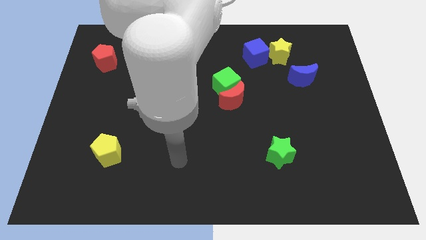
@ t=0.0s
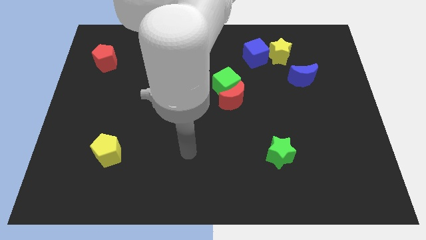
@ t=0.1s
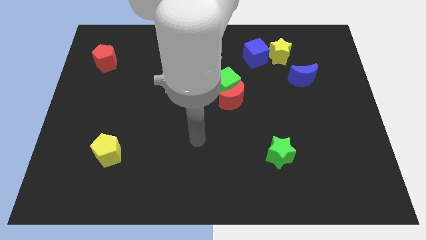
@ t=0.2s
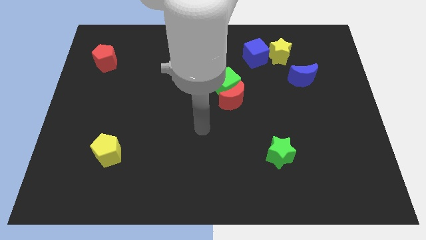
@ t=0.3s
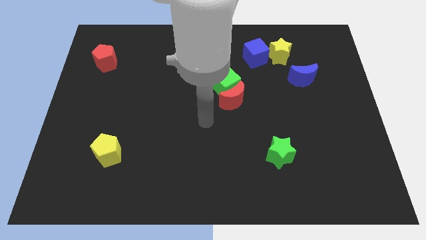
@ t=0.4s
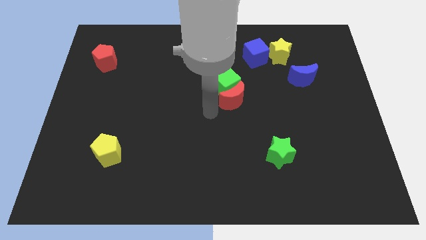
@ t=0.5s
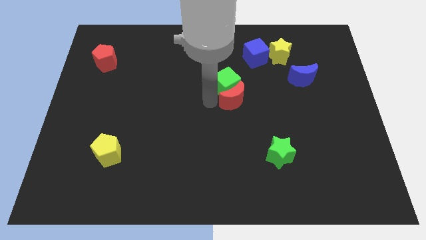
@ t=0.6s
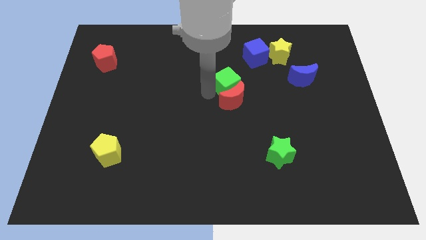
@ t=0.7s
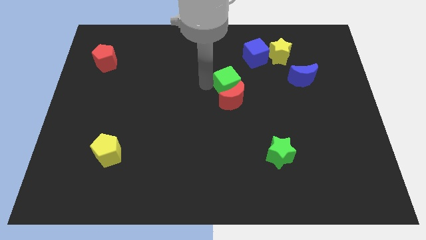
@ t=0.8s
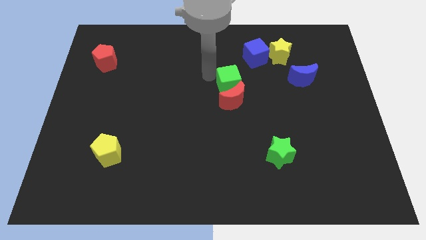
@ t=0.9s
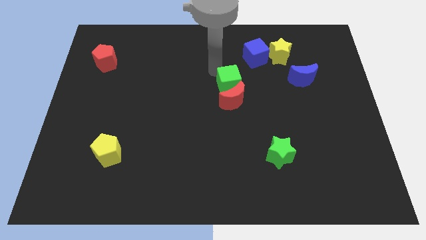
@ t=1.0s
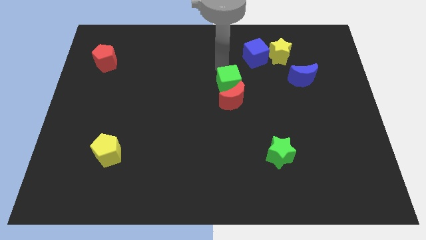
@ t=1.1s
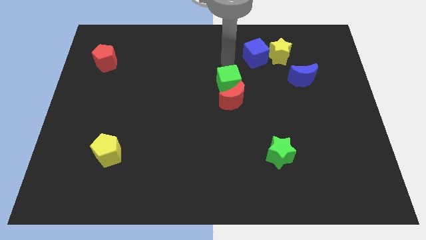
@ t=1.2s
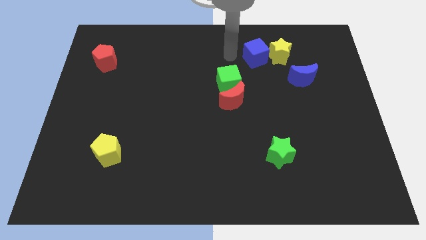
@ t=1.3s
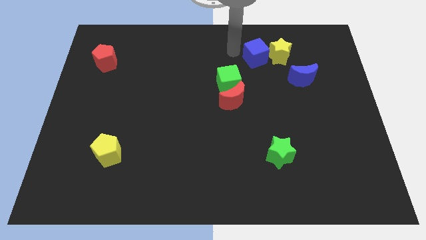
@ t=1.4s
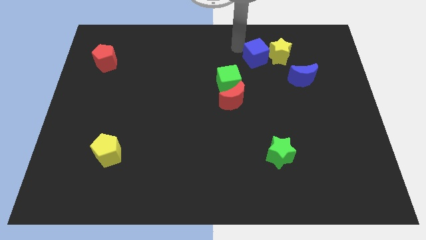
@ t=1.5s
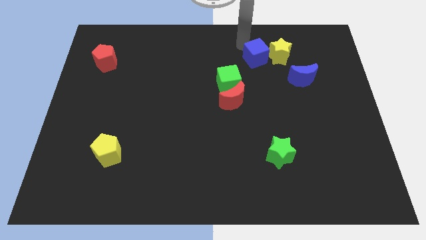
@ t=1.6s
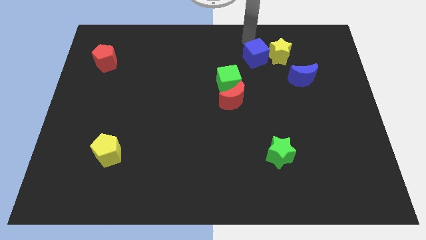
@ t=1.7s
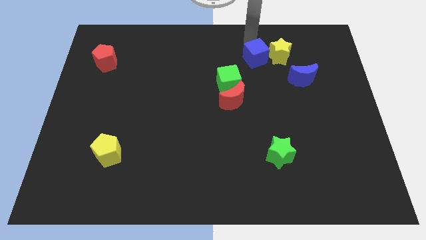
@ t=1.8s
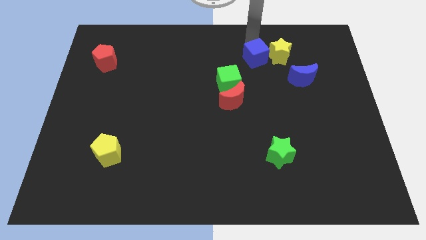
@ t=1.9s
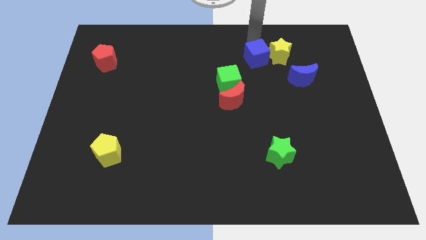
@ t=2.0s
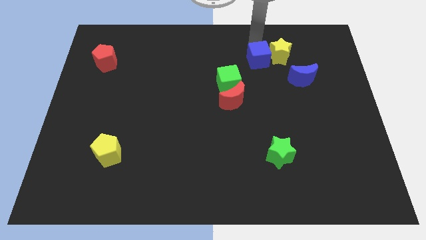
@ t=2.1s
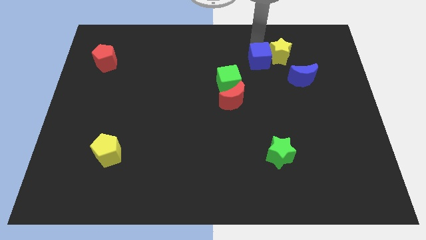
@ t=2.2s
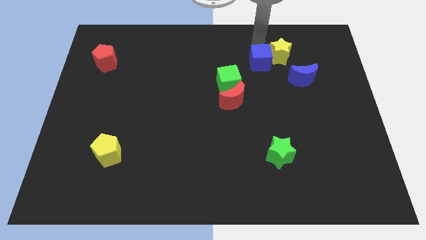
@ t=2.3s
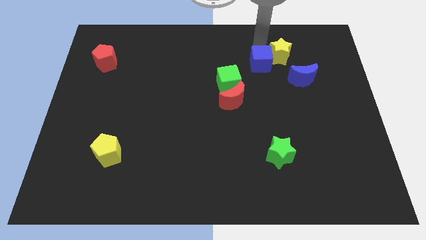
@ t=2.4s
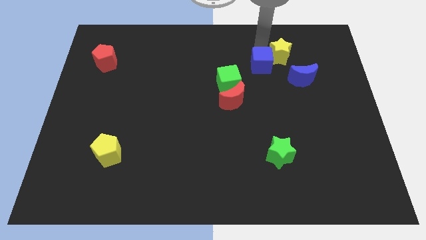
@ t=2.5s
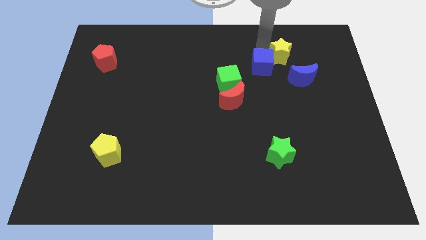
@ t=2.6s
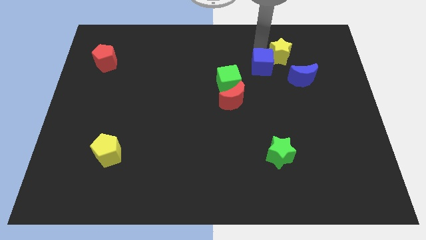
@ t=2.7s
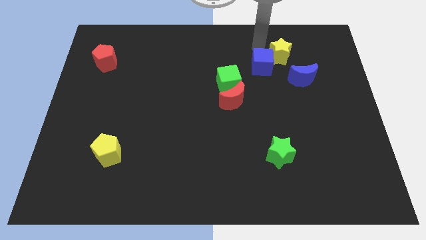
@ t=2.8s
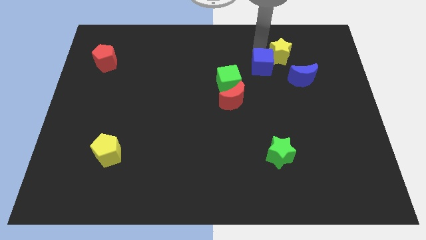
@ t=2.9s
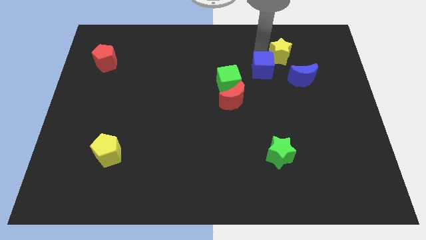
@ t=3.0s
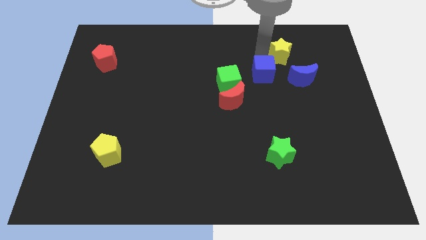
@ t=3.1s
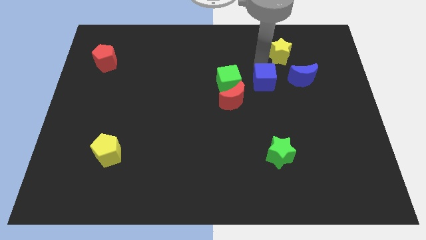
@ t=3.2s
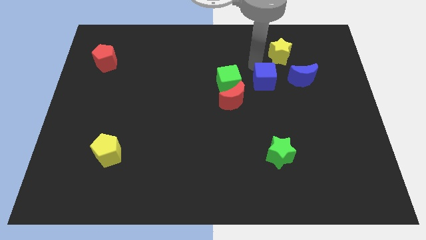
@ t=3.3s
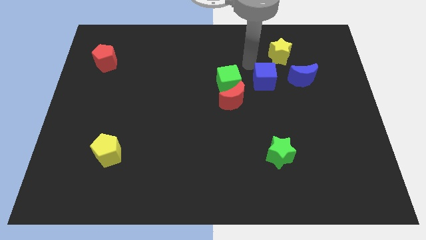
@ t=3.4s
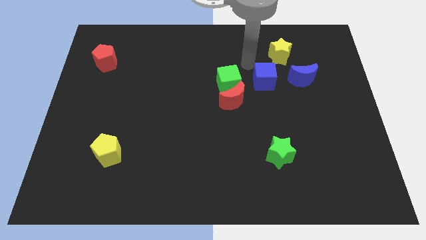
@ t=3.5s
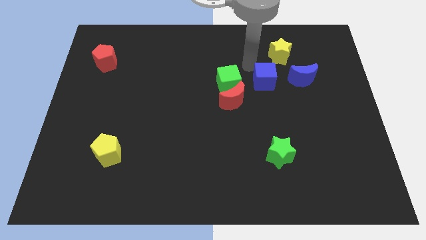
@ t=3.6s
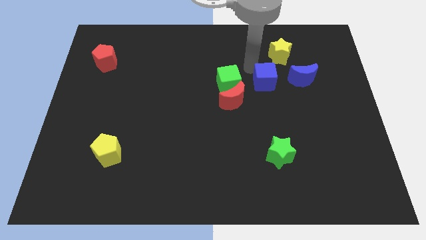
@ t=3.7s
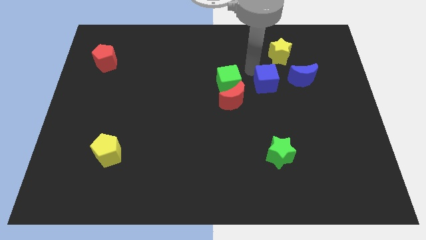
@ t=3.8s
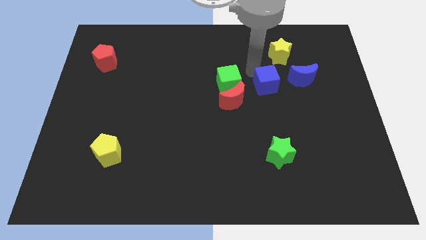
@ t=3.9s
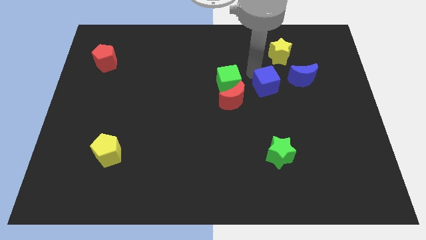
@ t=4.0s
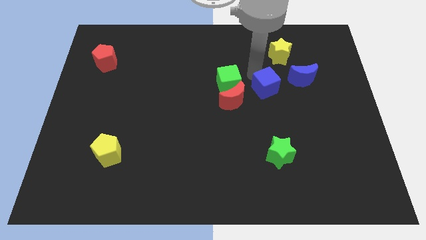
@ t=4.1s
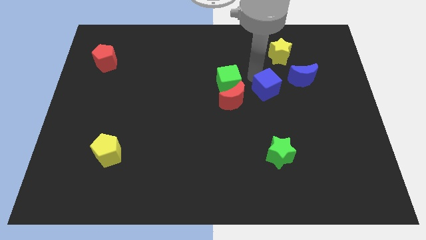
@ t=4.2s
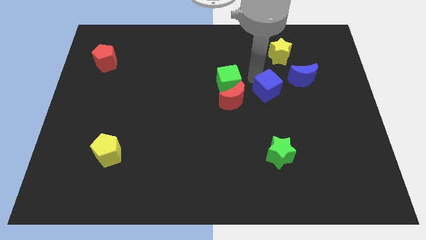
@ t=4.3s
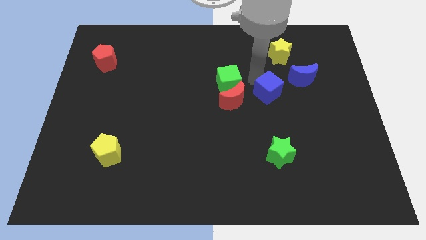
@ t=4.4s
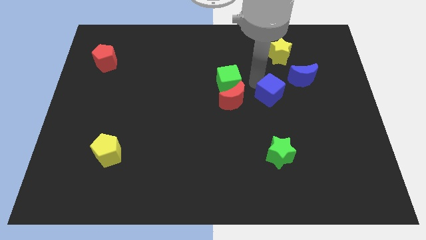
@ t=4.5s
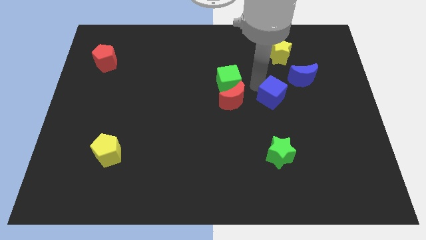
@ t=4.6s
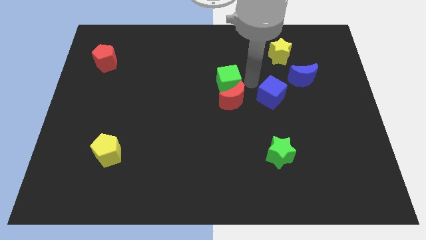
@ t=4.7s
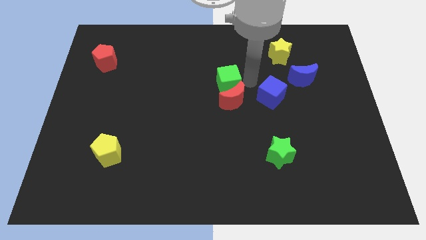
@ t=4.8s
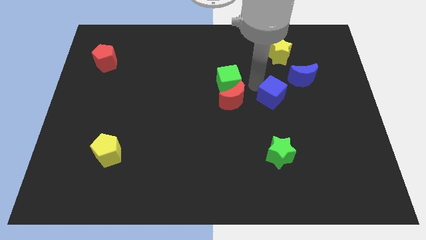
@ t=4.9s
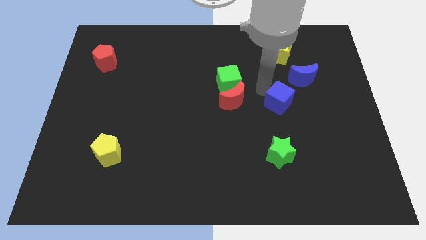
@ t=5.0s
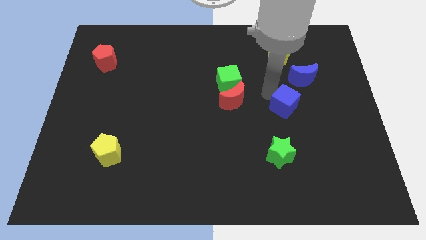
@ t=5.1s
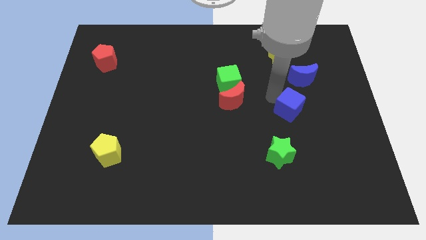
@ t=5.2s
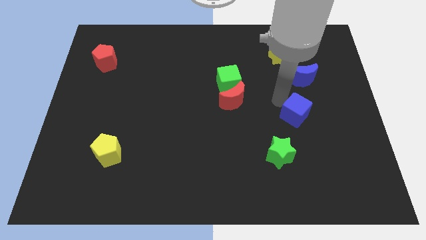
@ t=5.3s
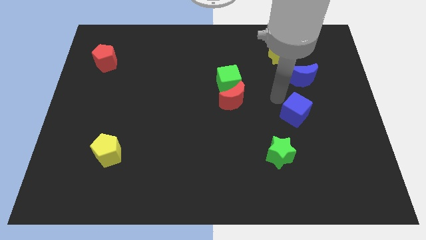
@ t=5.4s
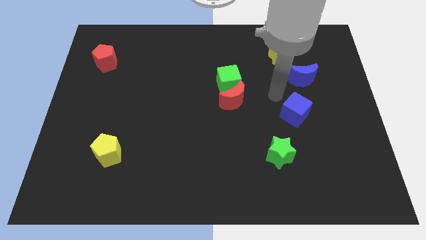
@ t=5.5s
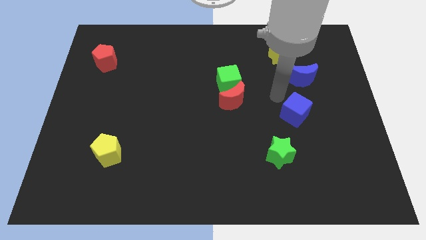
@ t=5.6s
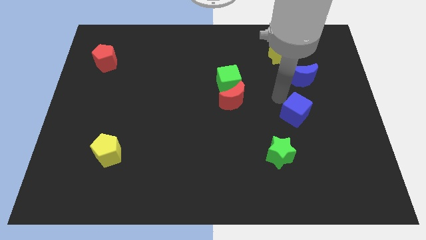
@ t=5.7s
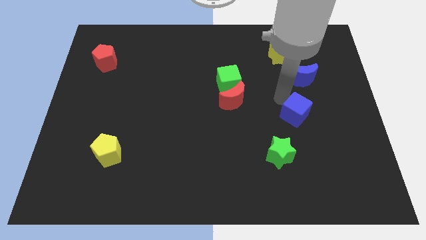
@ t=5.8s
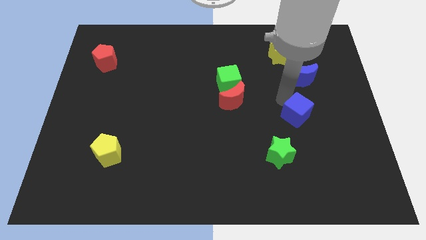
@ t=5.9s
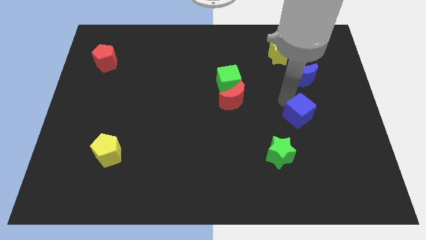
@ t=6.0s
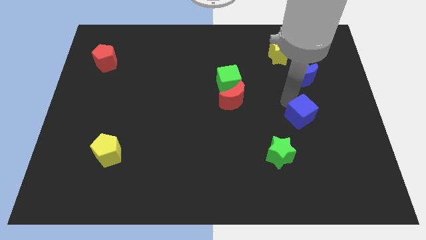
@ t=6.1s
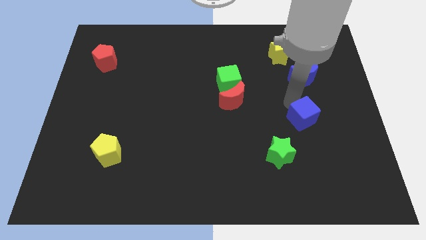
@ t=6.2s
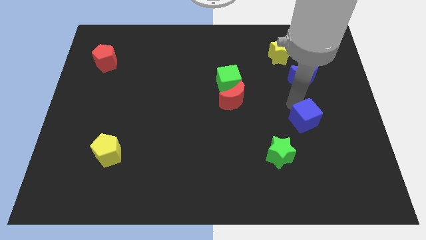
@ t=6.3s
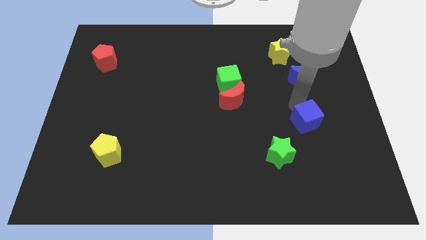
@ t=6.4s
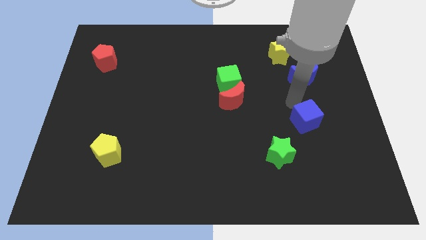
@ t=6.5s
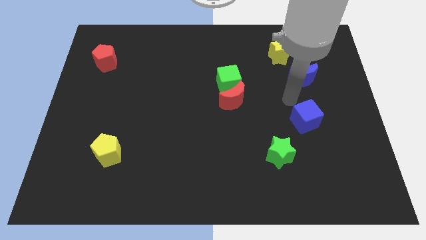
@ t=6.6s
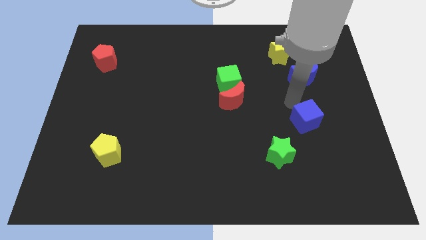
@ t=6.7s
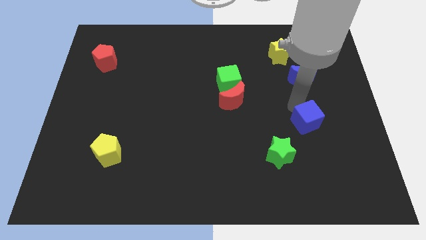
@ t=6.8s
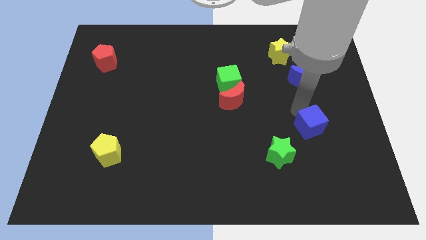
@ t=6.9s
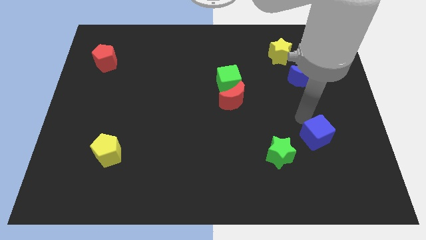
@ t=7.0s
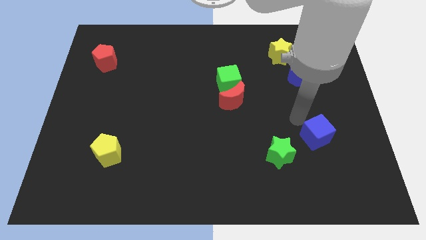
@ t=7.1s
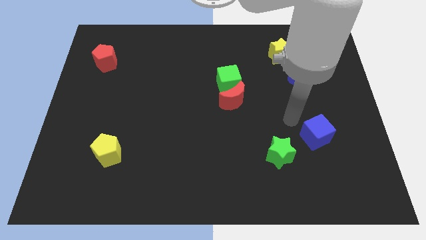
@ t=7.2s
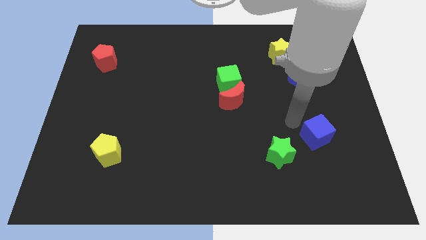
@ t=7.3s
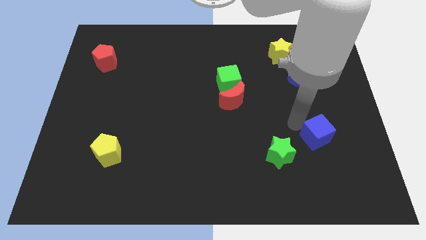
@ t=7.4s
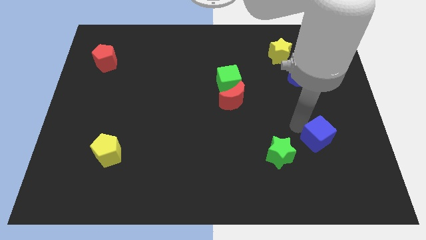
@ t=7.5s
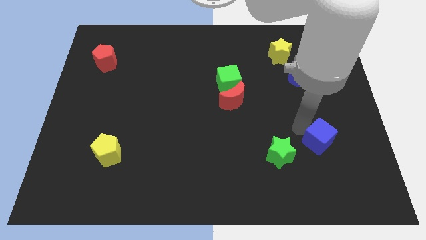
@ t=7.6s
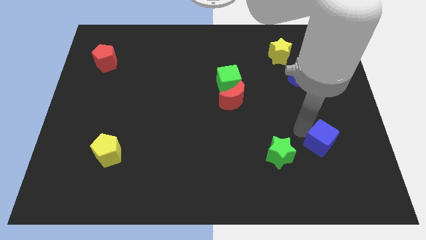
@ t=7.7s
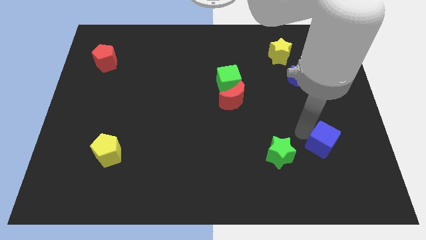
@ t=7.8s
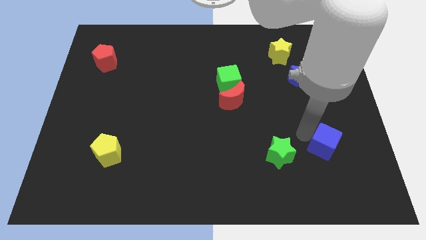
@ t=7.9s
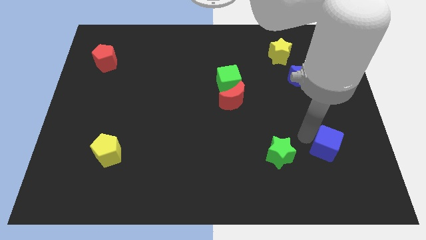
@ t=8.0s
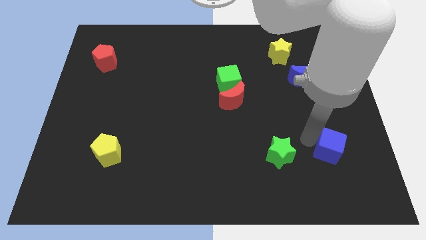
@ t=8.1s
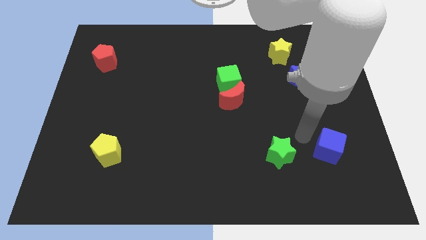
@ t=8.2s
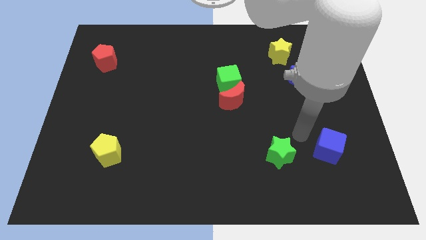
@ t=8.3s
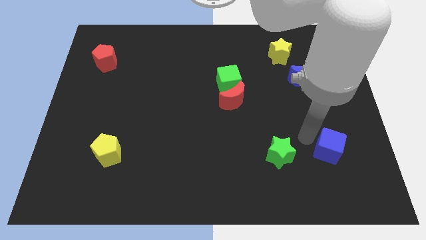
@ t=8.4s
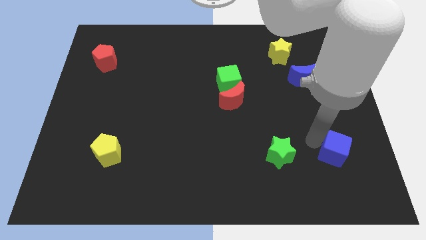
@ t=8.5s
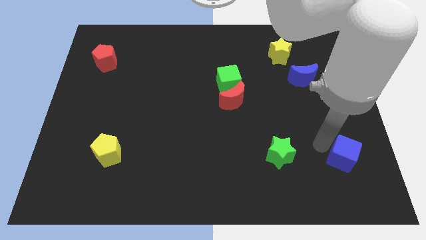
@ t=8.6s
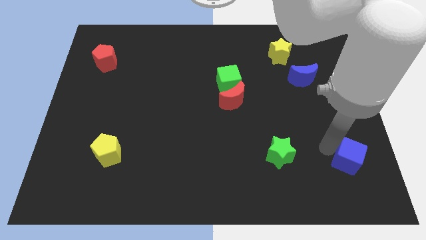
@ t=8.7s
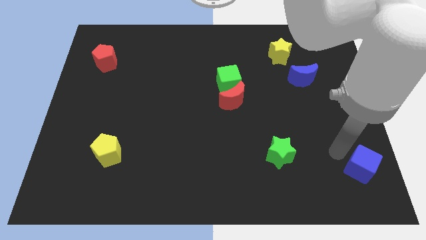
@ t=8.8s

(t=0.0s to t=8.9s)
slide the blue cube to the bottom right of the board
